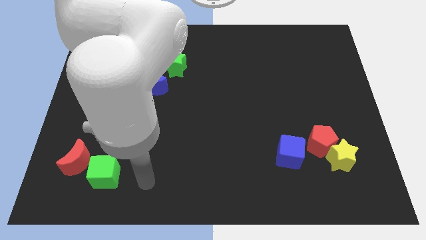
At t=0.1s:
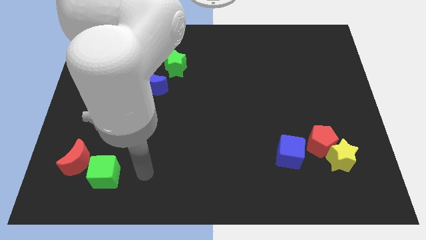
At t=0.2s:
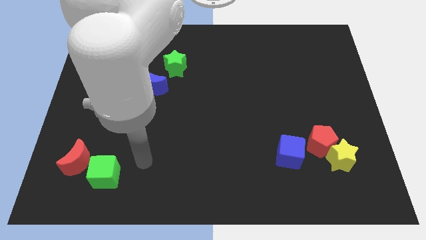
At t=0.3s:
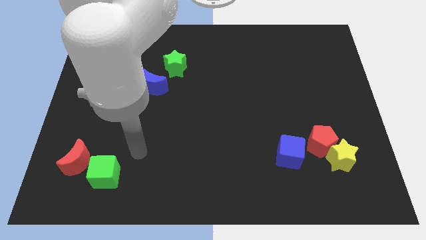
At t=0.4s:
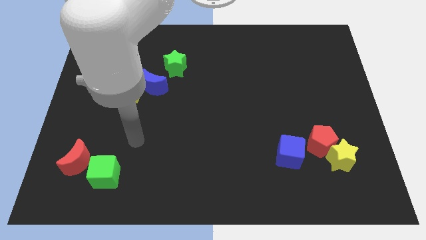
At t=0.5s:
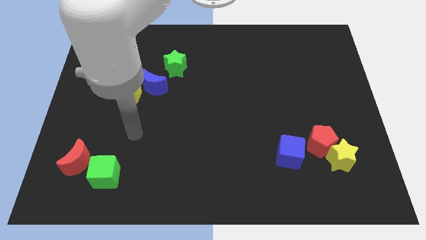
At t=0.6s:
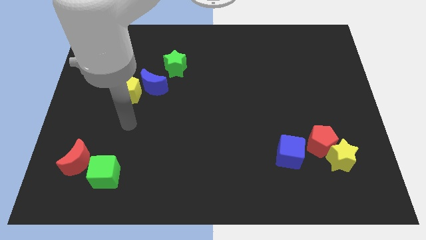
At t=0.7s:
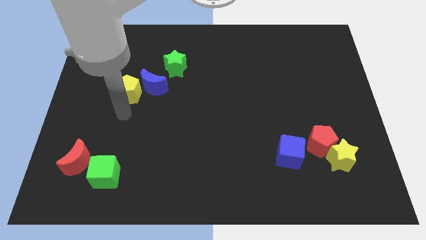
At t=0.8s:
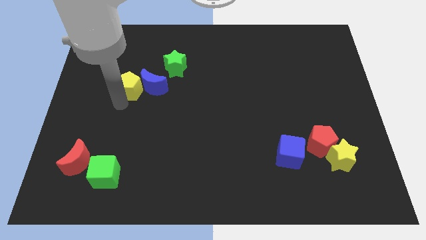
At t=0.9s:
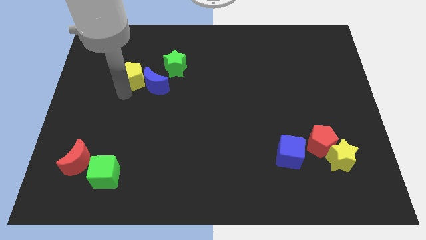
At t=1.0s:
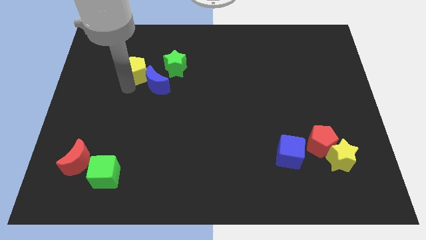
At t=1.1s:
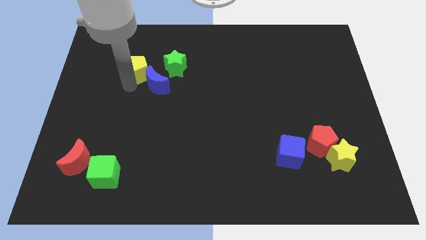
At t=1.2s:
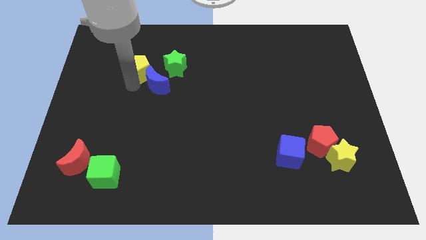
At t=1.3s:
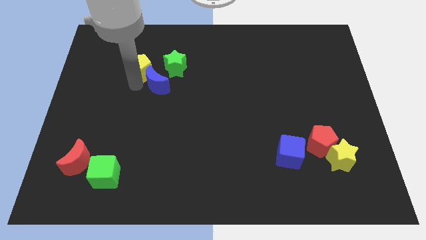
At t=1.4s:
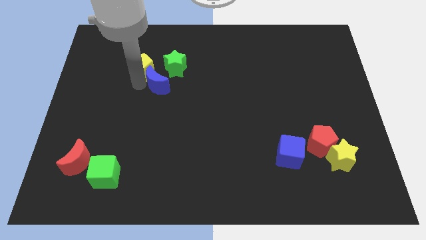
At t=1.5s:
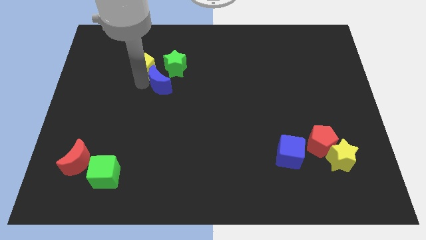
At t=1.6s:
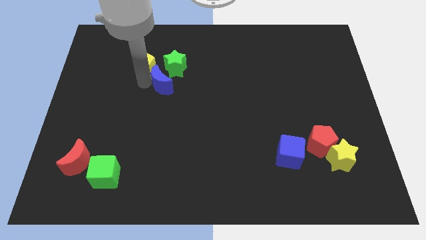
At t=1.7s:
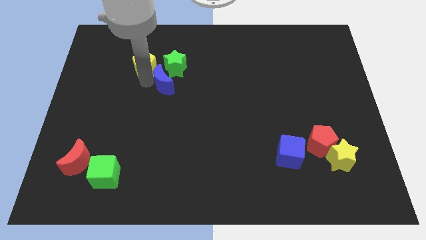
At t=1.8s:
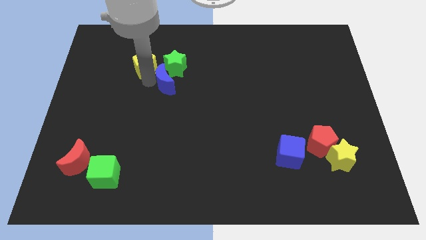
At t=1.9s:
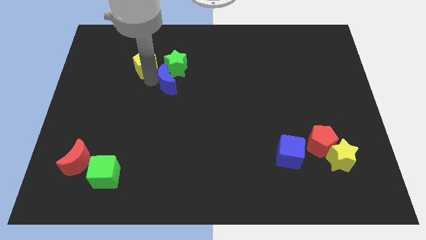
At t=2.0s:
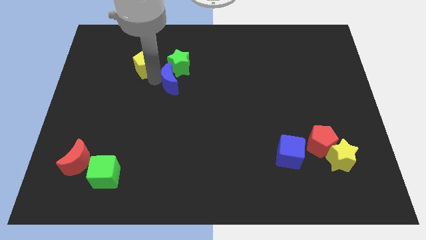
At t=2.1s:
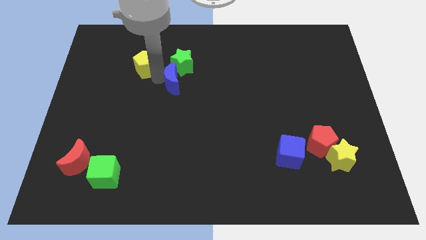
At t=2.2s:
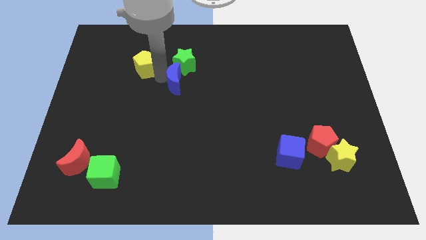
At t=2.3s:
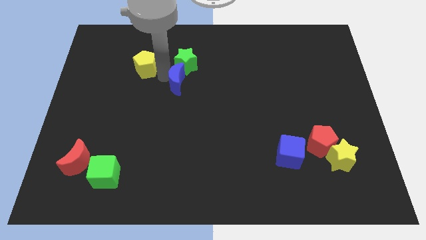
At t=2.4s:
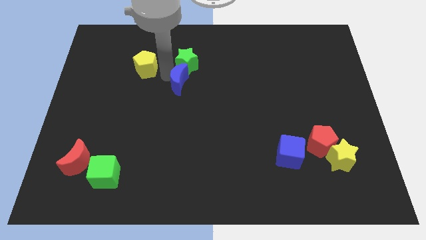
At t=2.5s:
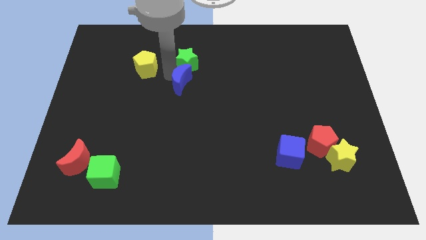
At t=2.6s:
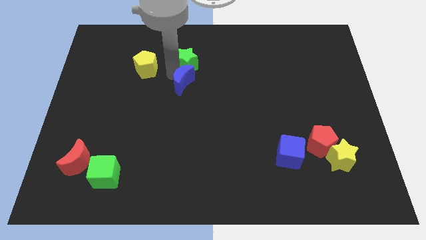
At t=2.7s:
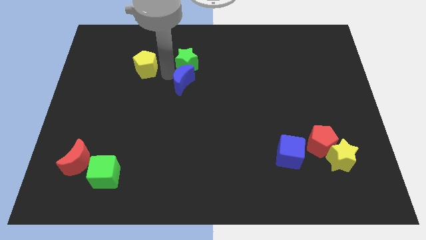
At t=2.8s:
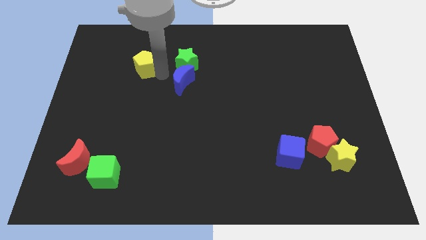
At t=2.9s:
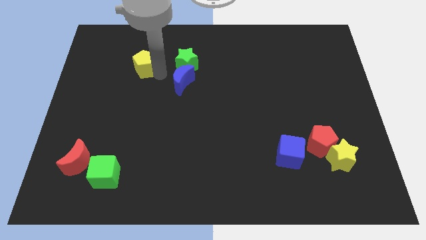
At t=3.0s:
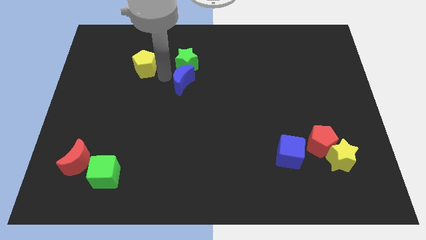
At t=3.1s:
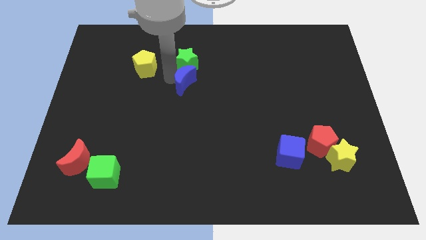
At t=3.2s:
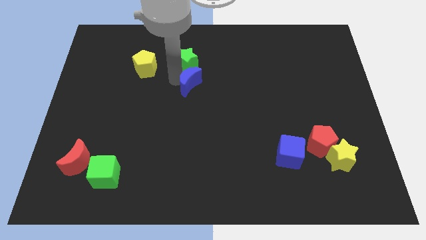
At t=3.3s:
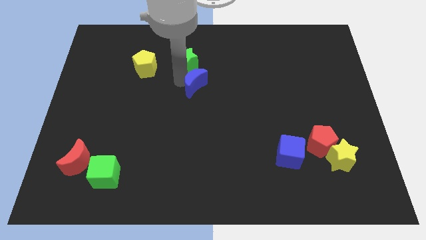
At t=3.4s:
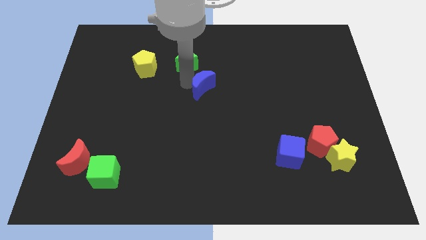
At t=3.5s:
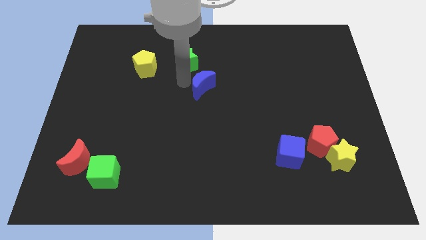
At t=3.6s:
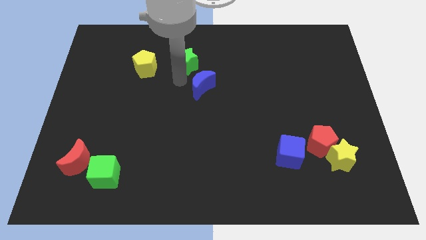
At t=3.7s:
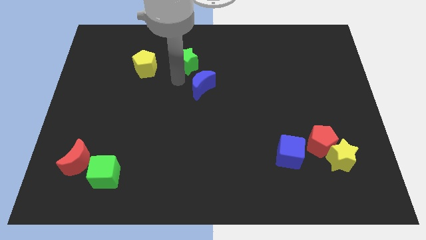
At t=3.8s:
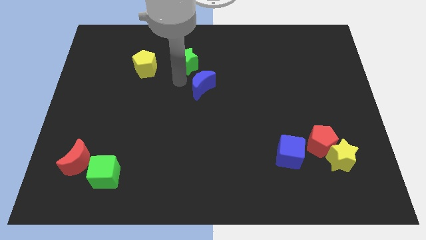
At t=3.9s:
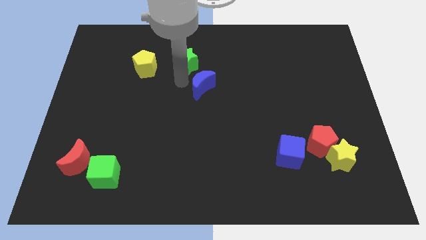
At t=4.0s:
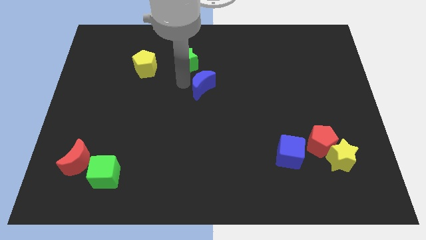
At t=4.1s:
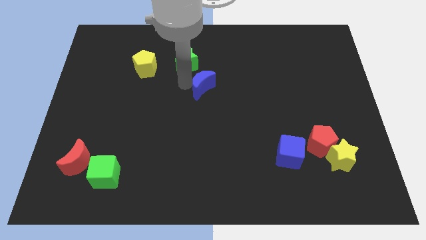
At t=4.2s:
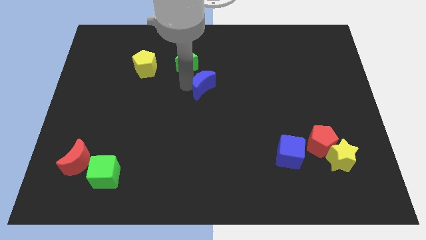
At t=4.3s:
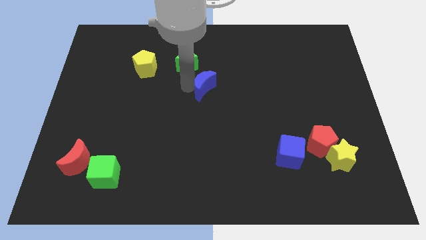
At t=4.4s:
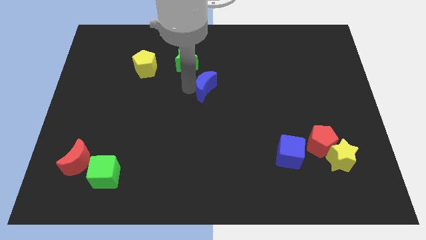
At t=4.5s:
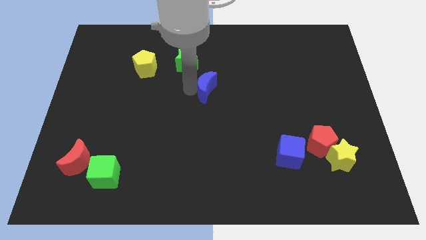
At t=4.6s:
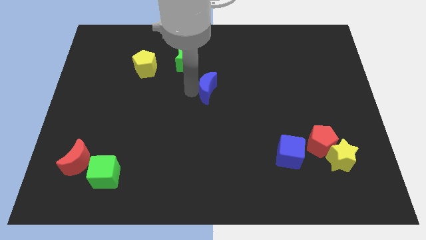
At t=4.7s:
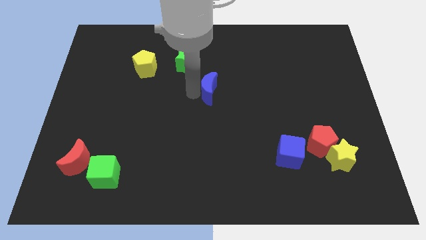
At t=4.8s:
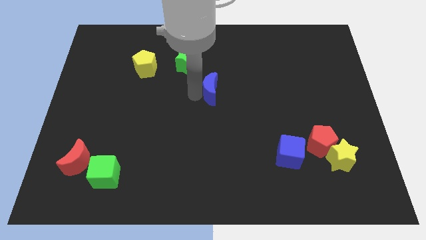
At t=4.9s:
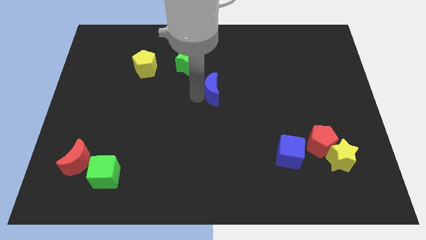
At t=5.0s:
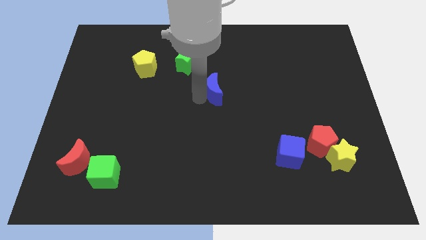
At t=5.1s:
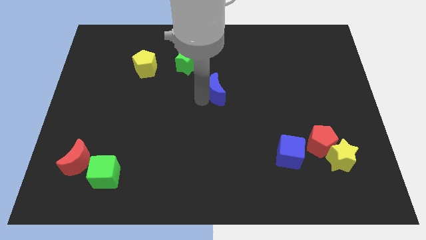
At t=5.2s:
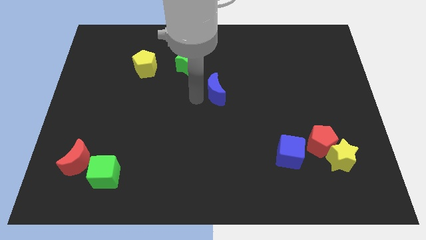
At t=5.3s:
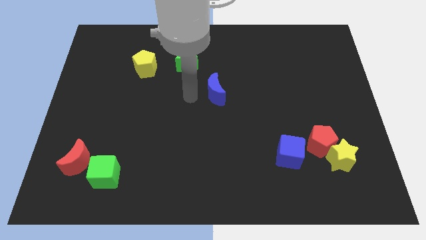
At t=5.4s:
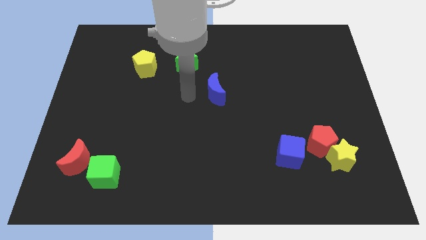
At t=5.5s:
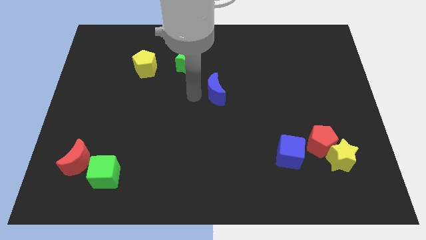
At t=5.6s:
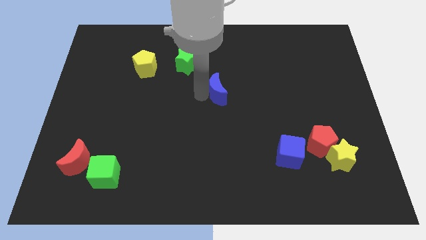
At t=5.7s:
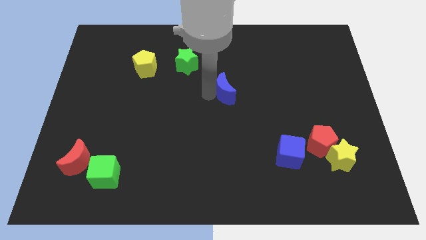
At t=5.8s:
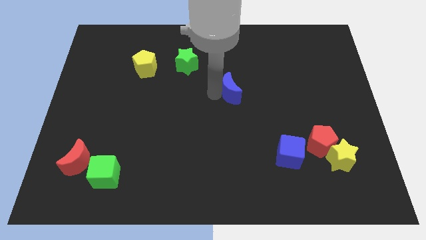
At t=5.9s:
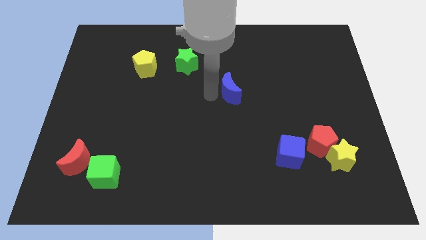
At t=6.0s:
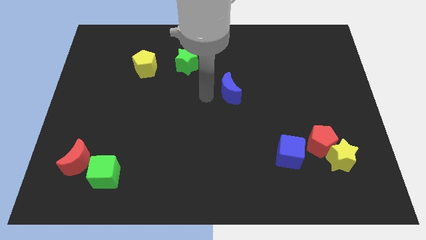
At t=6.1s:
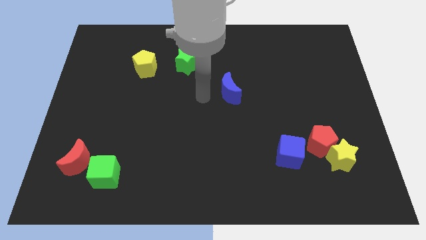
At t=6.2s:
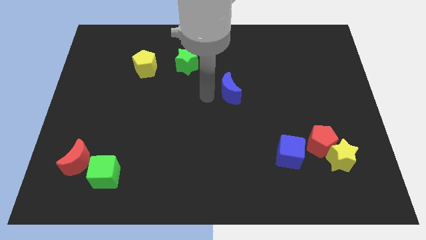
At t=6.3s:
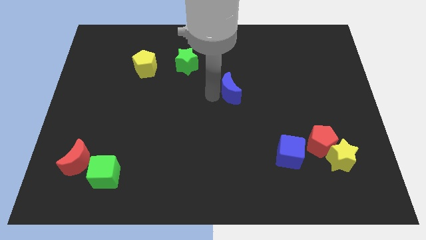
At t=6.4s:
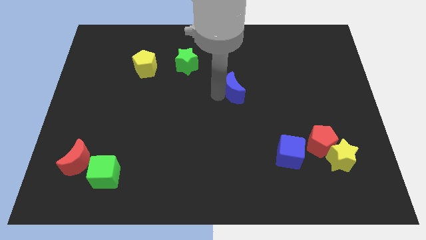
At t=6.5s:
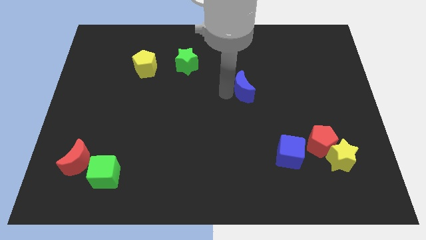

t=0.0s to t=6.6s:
slide the blue moon to the right

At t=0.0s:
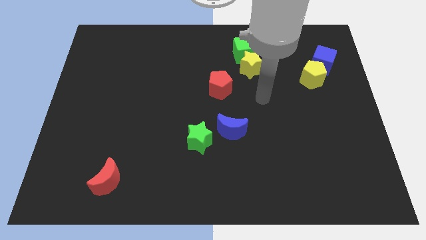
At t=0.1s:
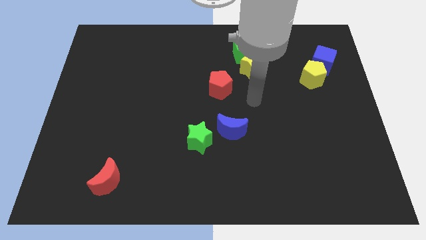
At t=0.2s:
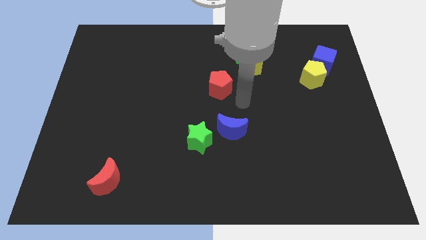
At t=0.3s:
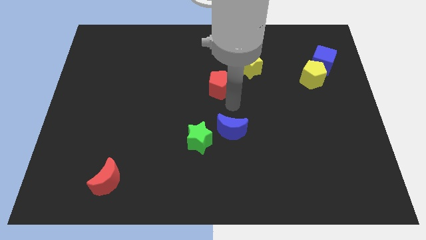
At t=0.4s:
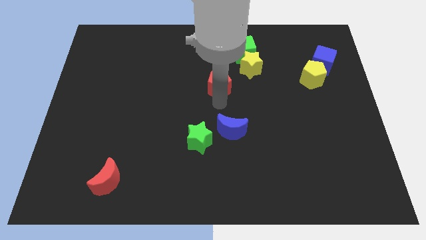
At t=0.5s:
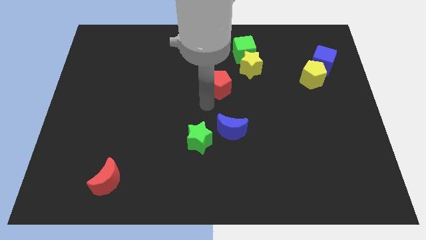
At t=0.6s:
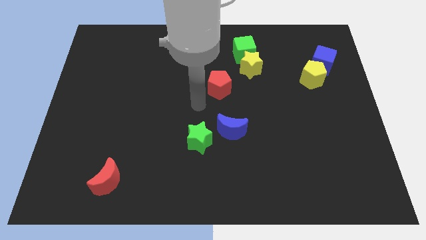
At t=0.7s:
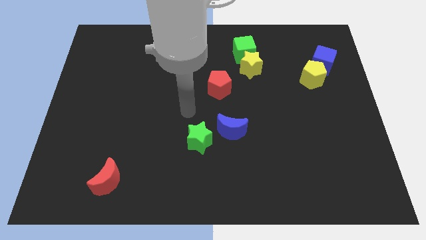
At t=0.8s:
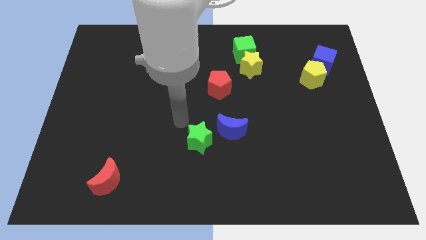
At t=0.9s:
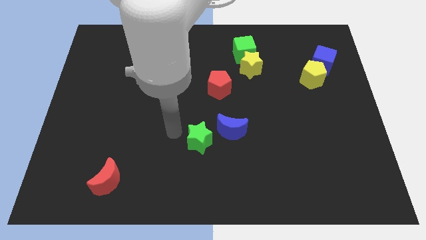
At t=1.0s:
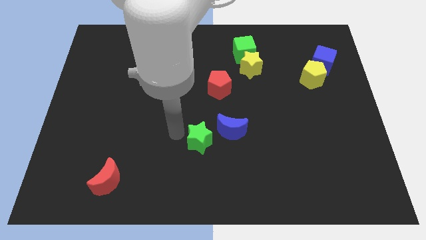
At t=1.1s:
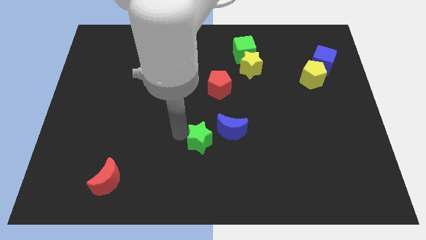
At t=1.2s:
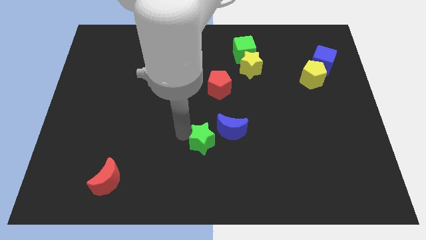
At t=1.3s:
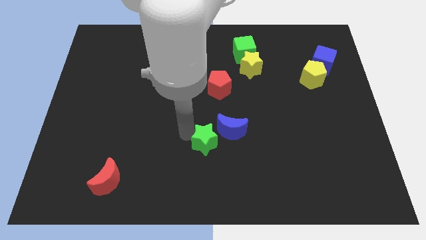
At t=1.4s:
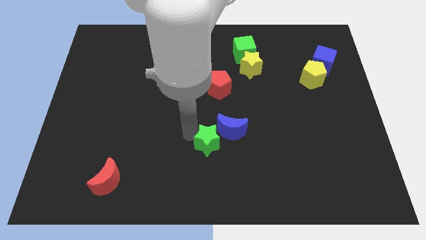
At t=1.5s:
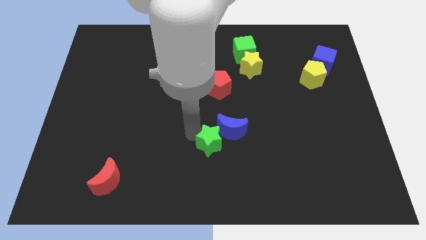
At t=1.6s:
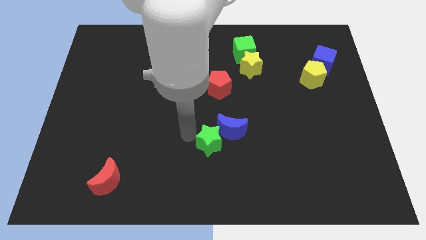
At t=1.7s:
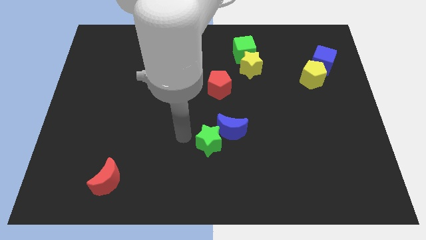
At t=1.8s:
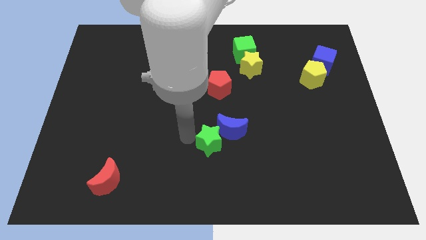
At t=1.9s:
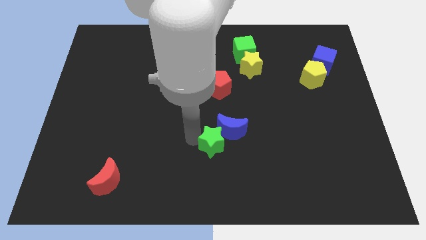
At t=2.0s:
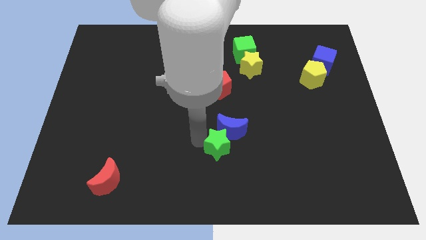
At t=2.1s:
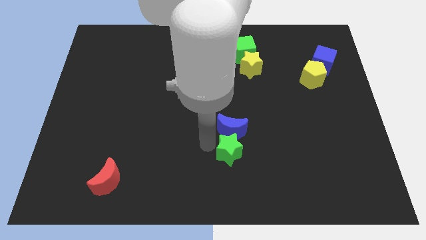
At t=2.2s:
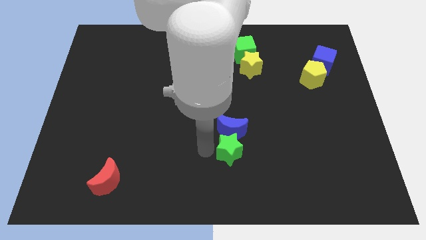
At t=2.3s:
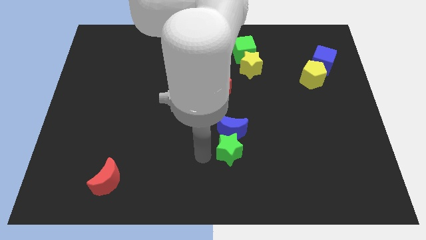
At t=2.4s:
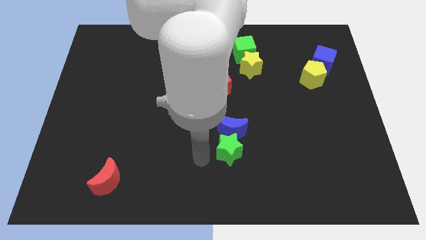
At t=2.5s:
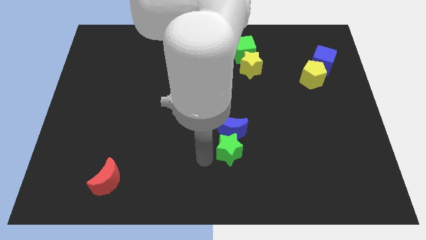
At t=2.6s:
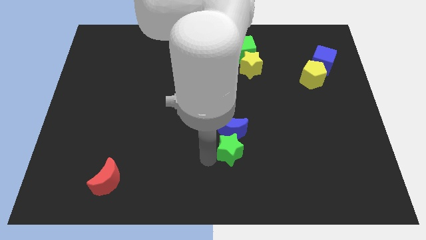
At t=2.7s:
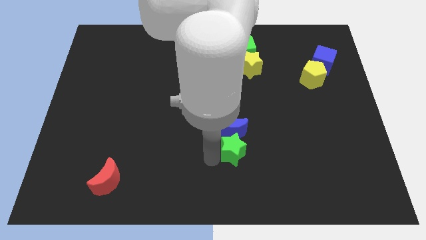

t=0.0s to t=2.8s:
move the green star a little bit right
